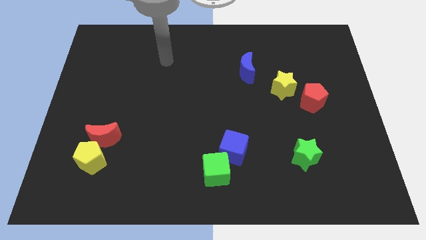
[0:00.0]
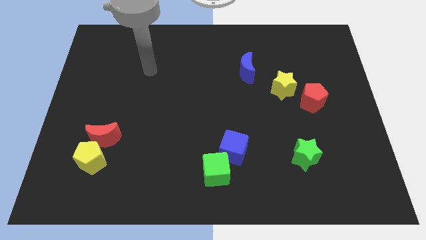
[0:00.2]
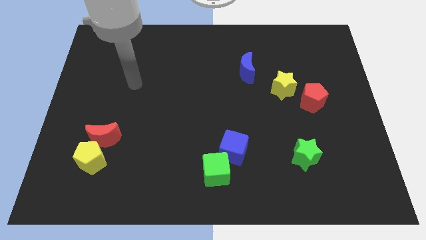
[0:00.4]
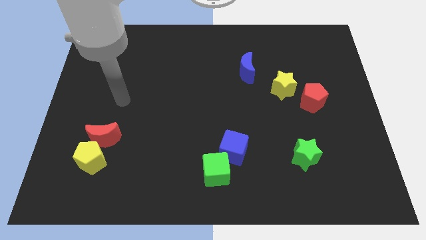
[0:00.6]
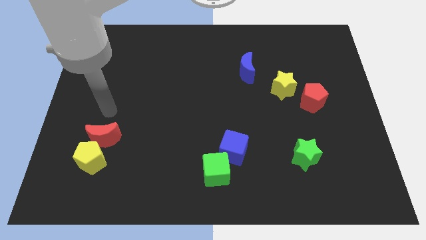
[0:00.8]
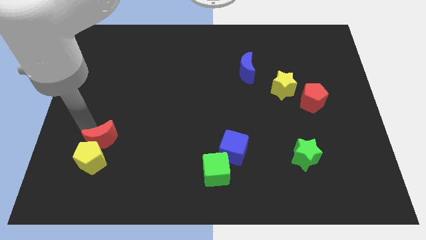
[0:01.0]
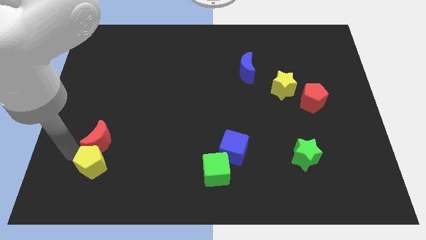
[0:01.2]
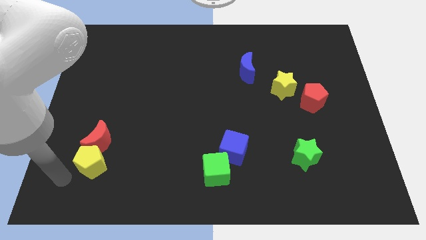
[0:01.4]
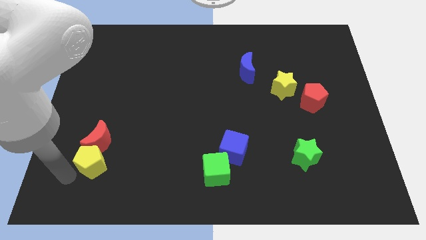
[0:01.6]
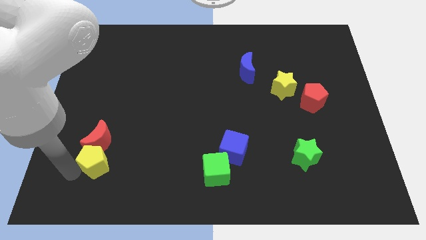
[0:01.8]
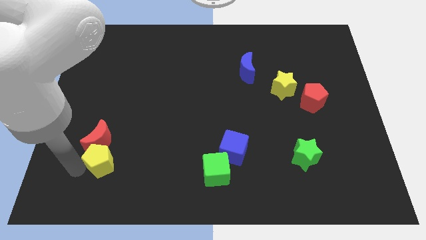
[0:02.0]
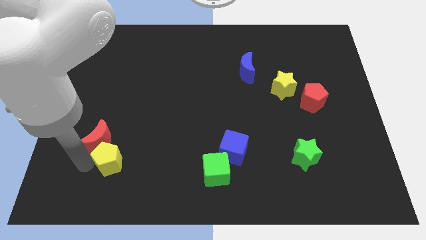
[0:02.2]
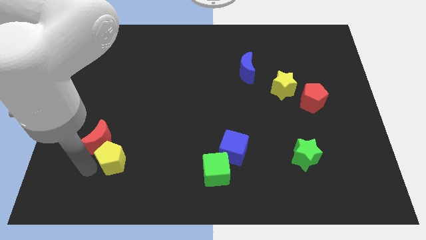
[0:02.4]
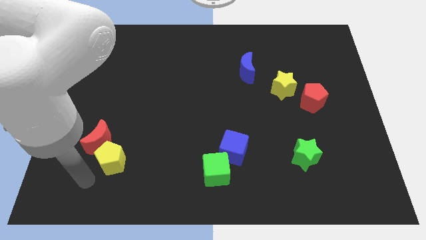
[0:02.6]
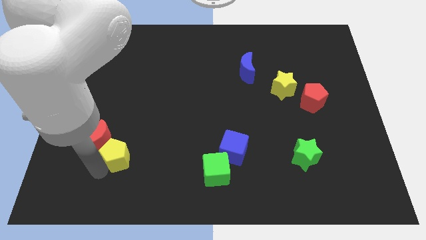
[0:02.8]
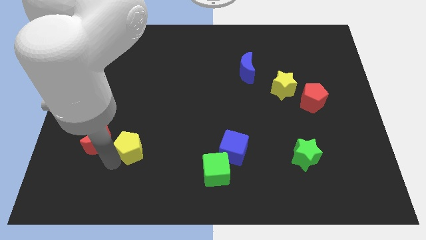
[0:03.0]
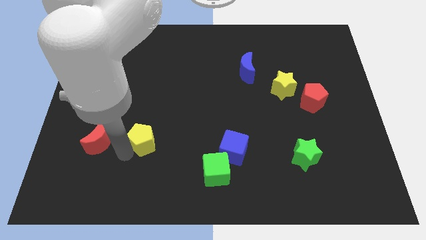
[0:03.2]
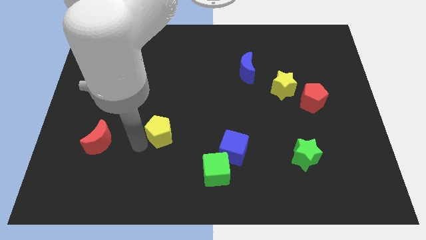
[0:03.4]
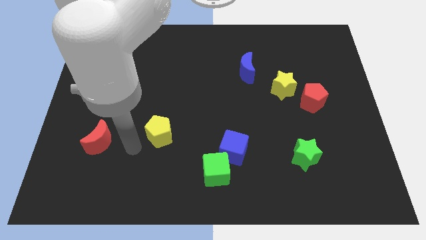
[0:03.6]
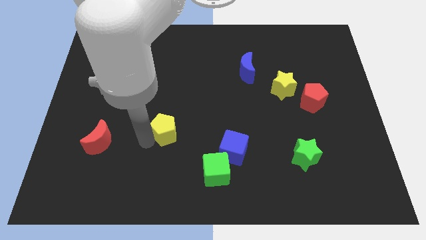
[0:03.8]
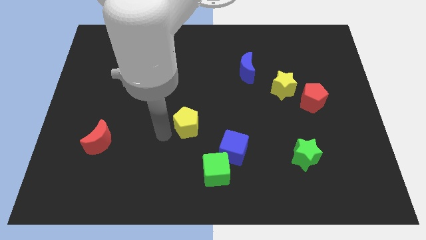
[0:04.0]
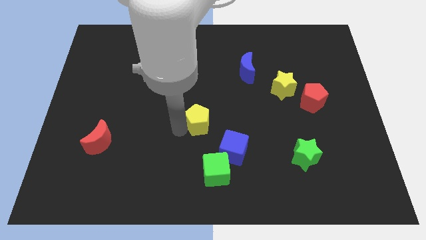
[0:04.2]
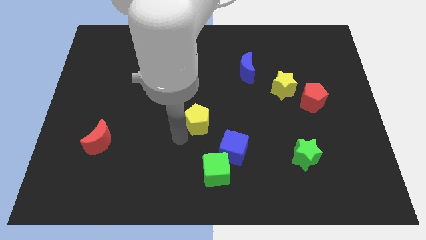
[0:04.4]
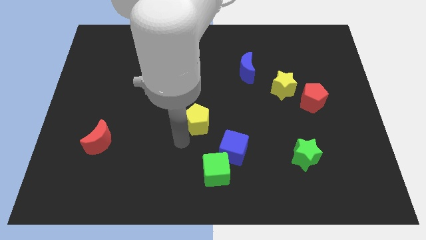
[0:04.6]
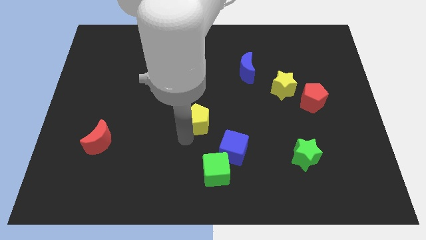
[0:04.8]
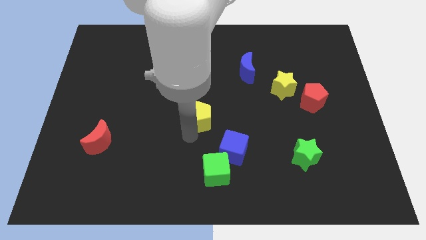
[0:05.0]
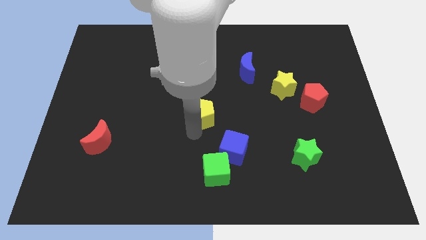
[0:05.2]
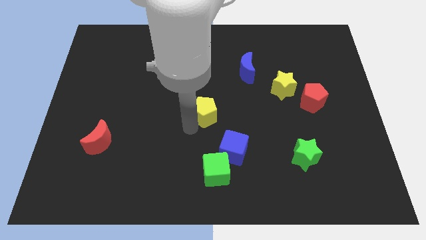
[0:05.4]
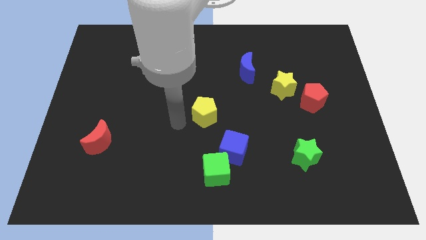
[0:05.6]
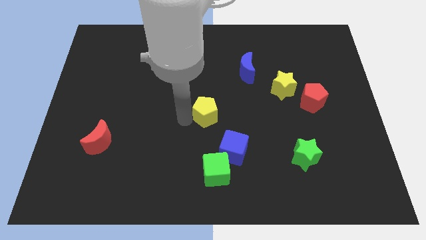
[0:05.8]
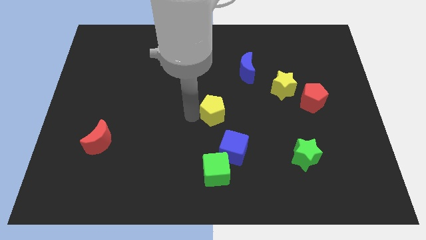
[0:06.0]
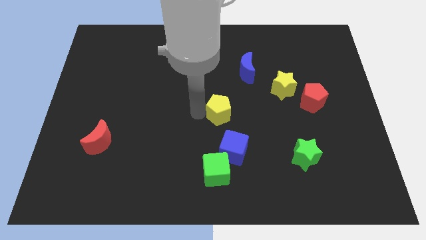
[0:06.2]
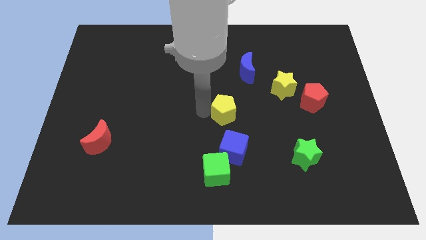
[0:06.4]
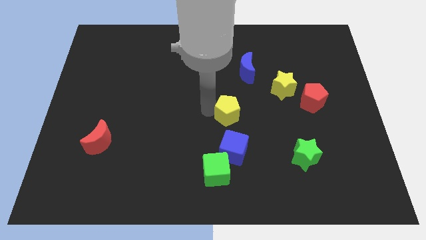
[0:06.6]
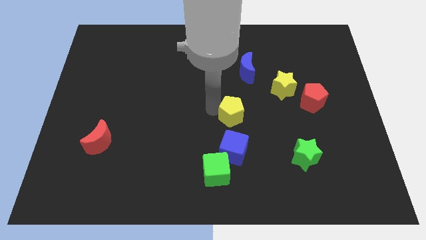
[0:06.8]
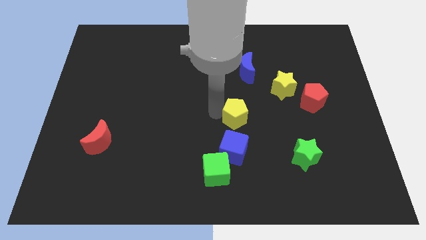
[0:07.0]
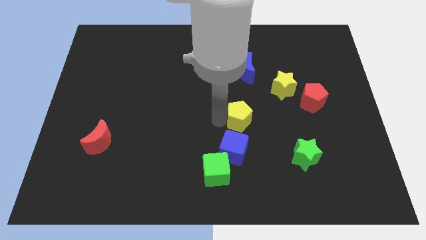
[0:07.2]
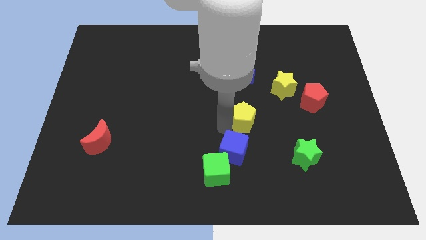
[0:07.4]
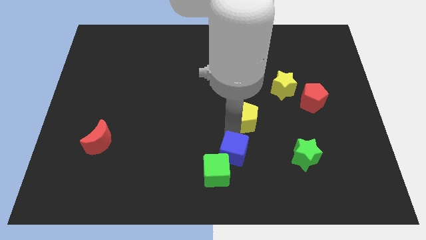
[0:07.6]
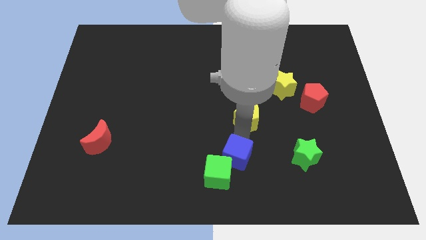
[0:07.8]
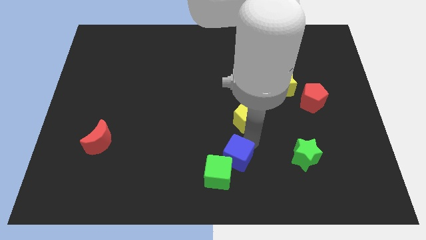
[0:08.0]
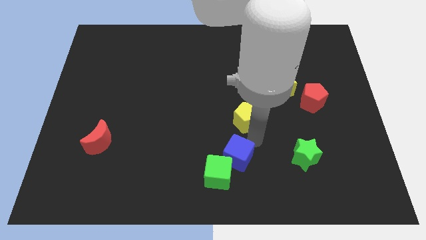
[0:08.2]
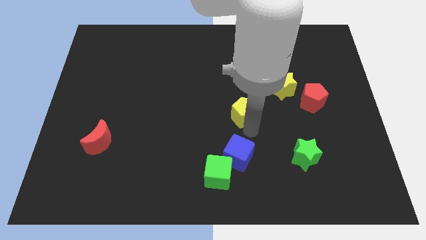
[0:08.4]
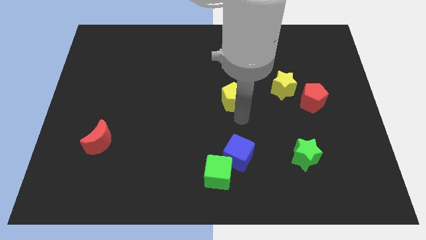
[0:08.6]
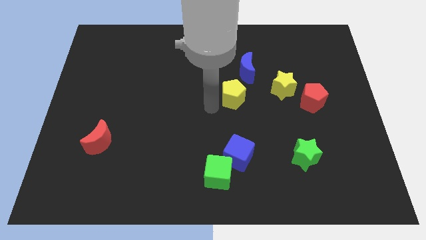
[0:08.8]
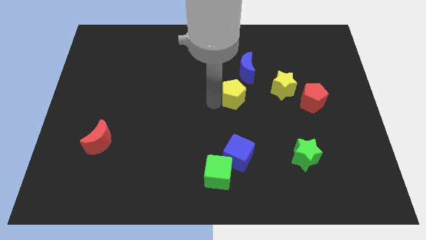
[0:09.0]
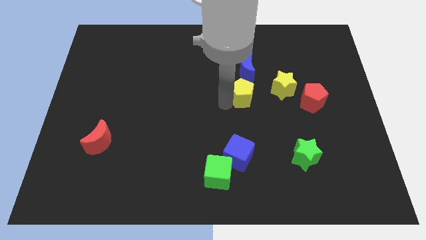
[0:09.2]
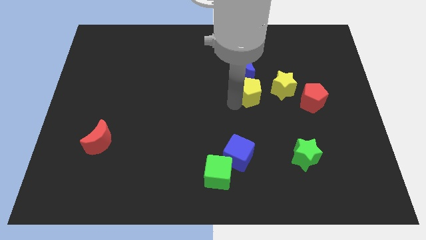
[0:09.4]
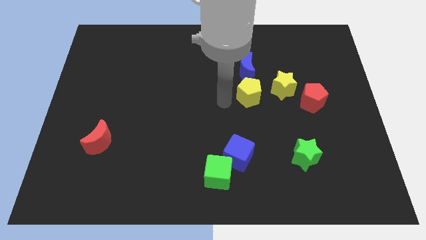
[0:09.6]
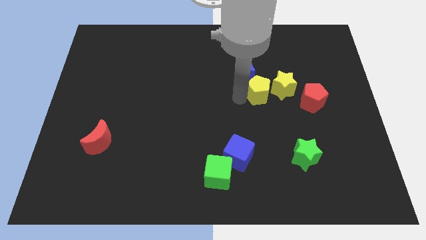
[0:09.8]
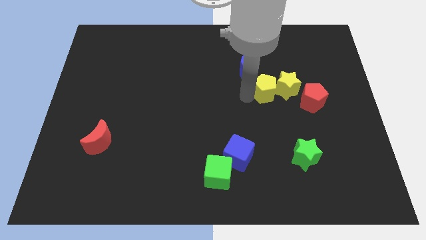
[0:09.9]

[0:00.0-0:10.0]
push the yellow pentagon towards the yellow star

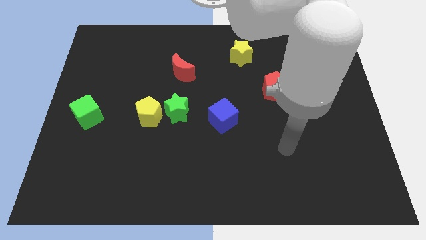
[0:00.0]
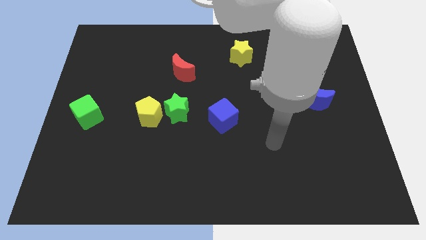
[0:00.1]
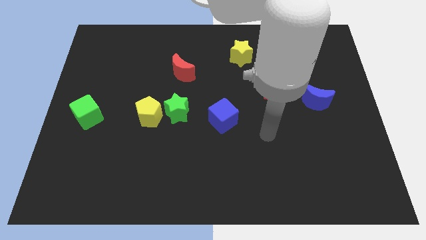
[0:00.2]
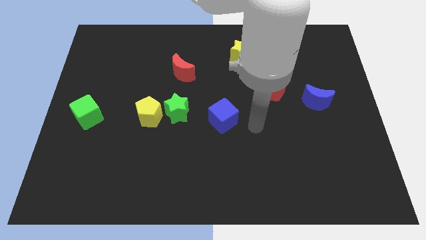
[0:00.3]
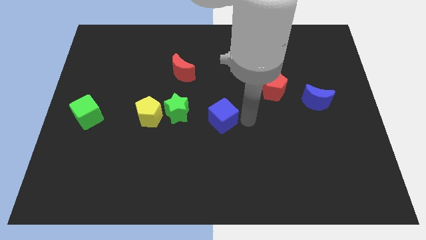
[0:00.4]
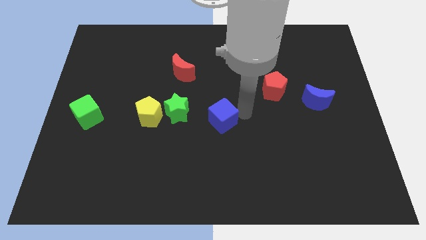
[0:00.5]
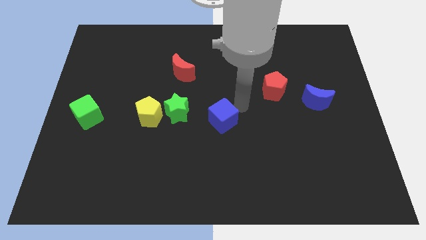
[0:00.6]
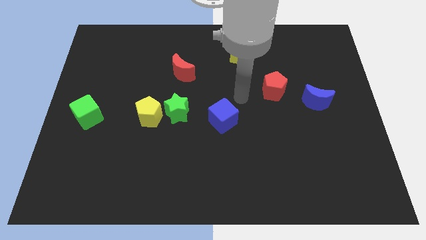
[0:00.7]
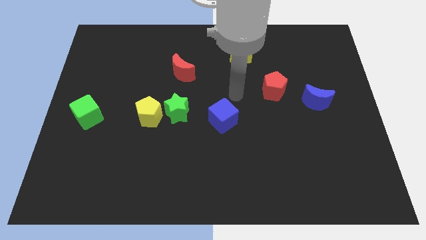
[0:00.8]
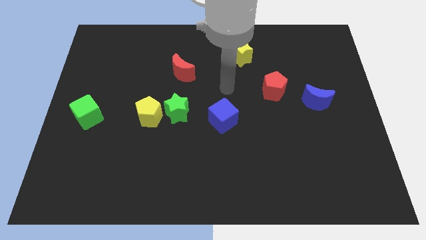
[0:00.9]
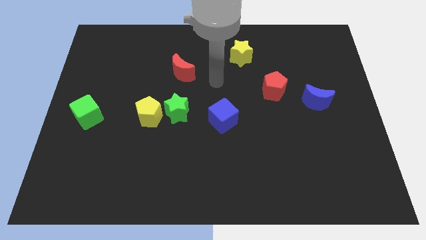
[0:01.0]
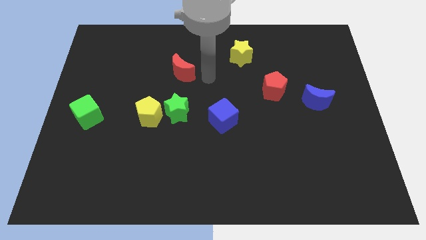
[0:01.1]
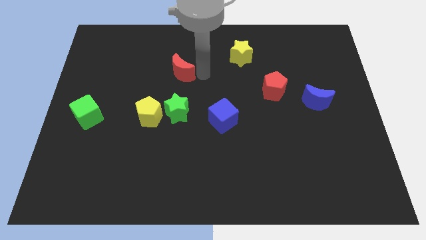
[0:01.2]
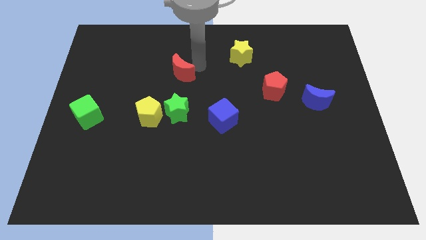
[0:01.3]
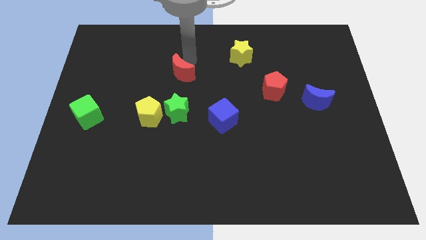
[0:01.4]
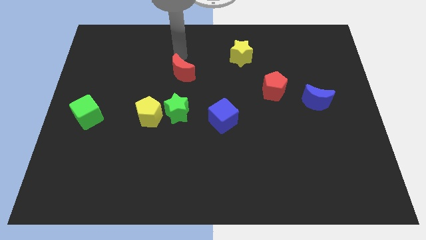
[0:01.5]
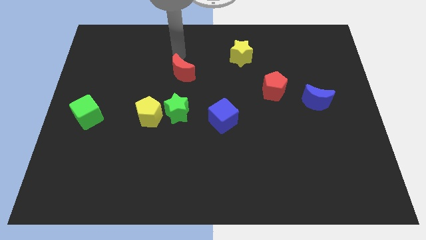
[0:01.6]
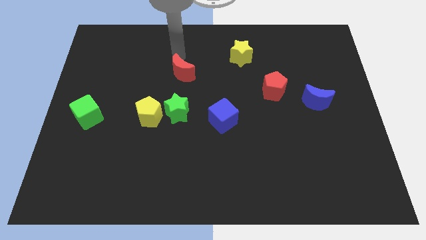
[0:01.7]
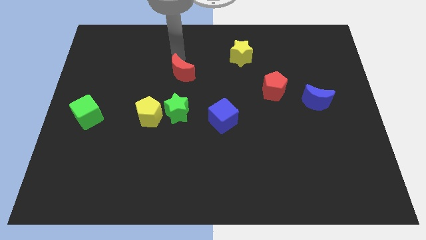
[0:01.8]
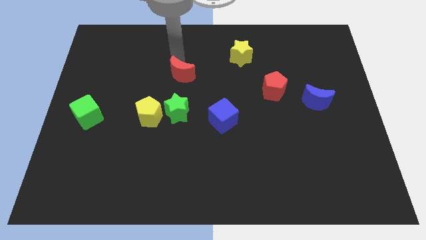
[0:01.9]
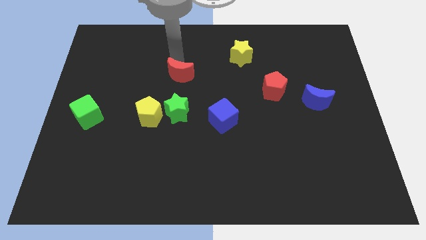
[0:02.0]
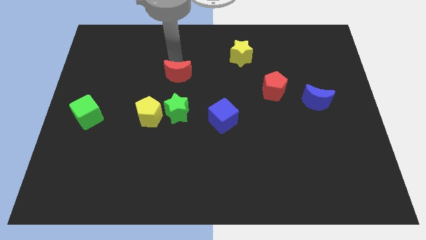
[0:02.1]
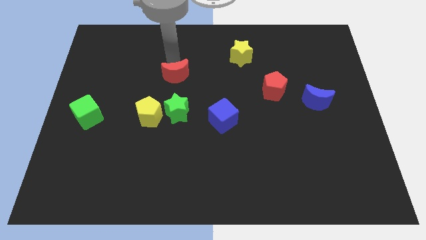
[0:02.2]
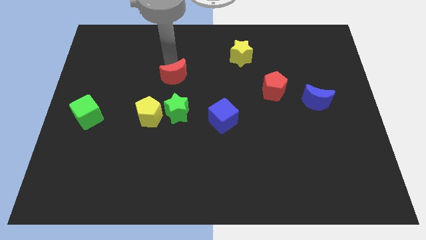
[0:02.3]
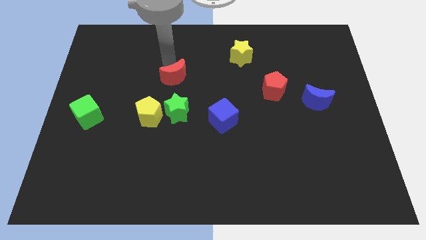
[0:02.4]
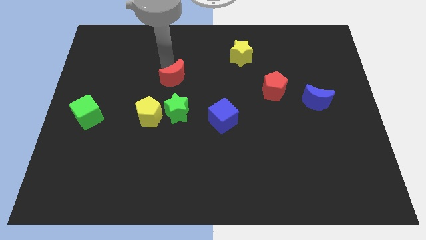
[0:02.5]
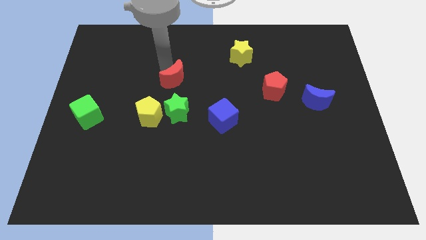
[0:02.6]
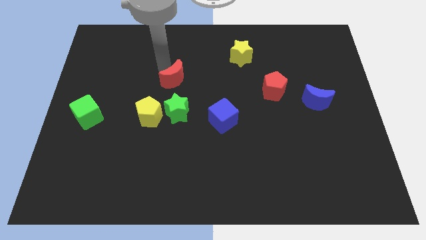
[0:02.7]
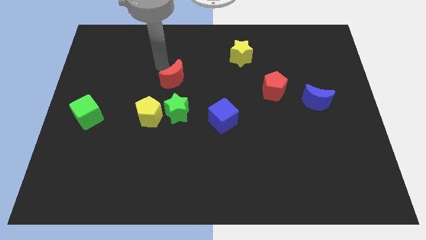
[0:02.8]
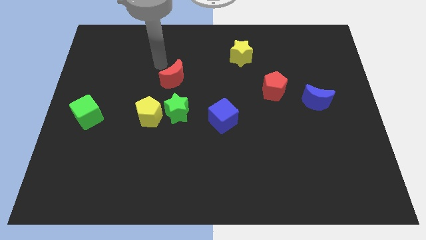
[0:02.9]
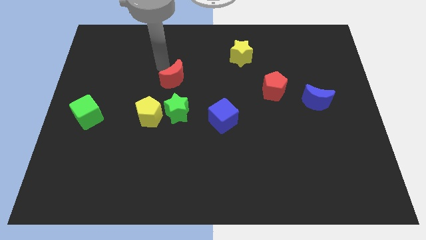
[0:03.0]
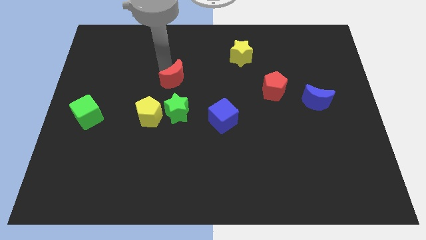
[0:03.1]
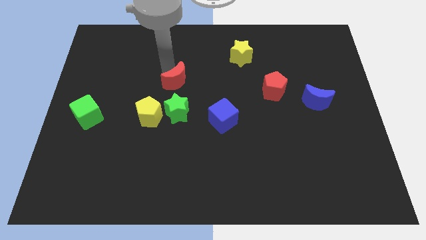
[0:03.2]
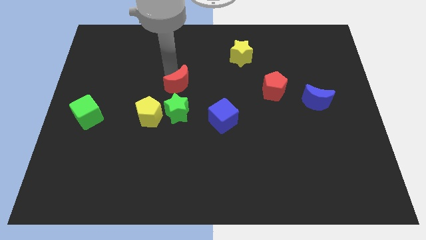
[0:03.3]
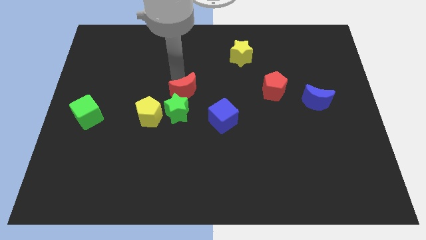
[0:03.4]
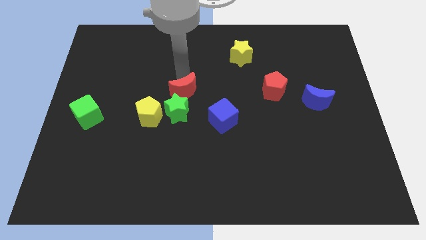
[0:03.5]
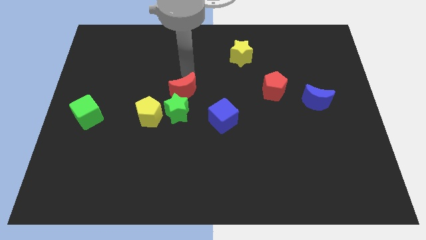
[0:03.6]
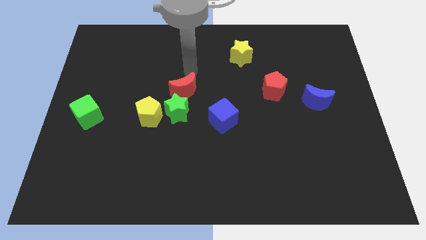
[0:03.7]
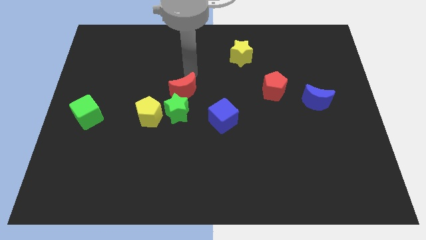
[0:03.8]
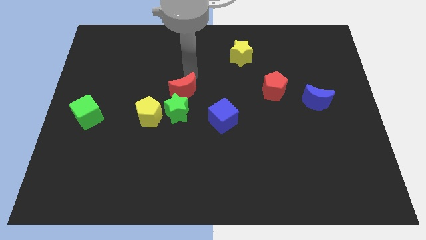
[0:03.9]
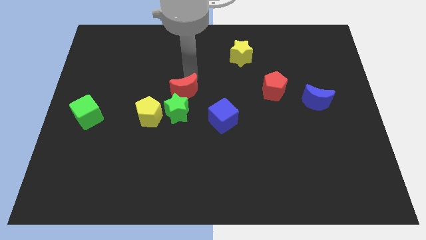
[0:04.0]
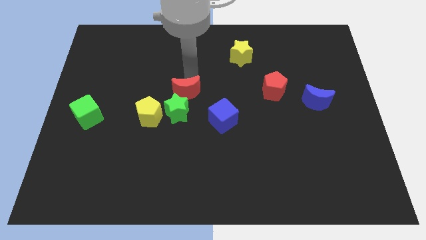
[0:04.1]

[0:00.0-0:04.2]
put the red moon close to the green star
